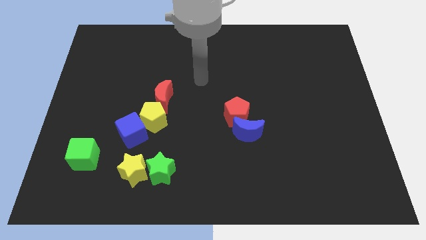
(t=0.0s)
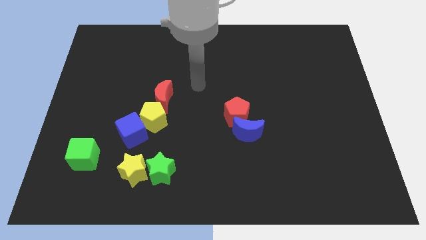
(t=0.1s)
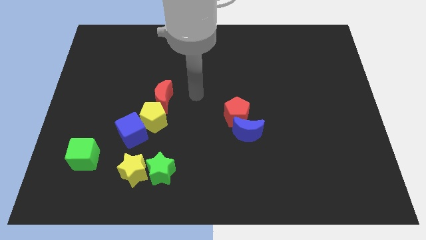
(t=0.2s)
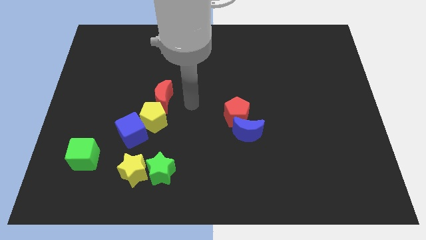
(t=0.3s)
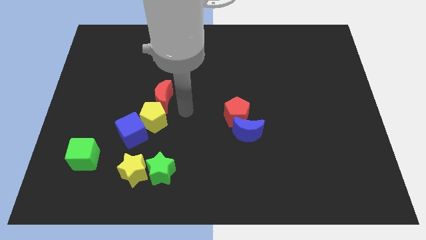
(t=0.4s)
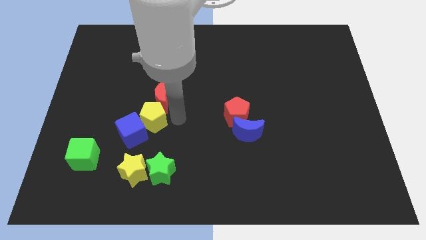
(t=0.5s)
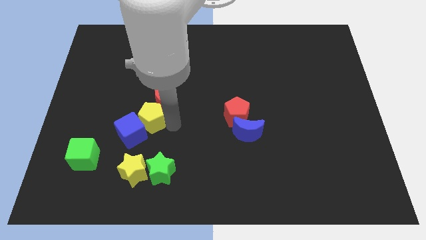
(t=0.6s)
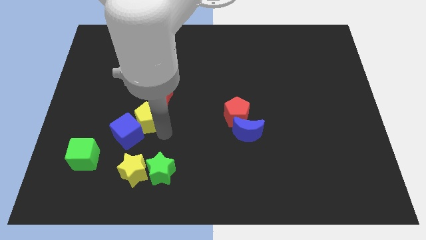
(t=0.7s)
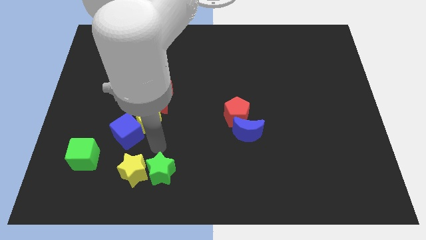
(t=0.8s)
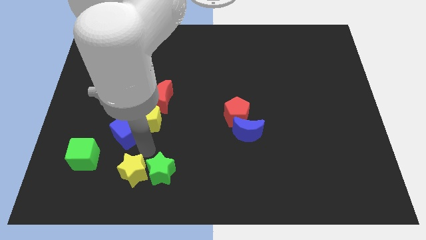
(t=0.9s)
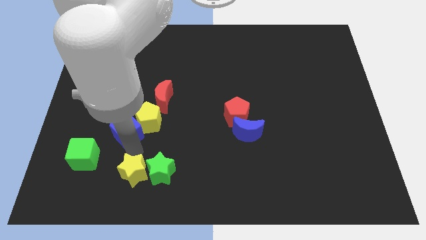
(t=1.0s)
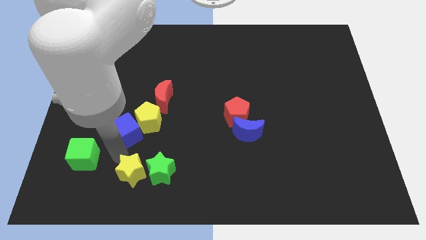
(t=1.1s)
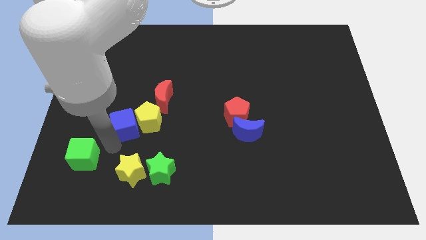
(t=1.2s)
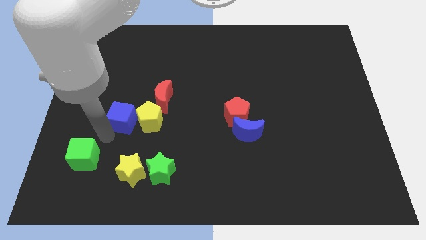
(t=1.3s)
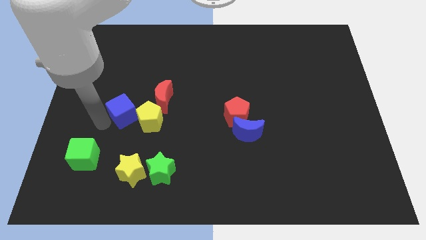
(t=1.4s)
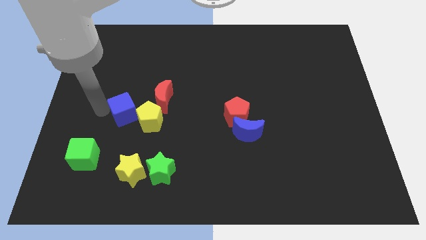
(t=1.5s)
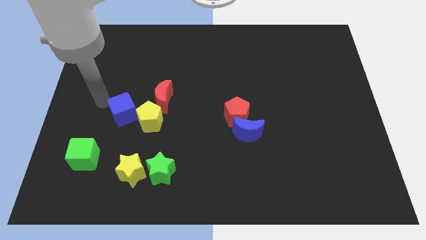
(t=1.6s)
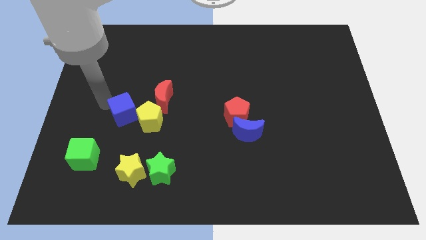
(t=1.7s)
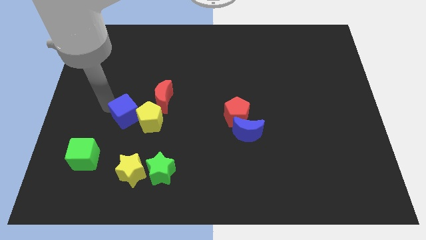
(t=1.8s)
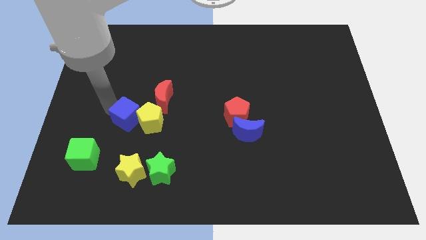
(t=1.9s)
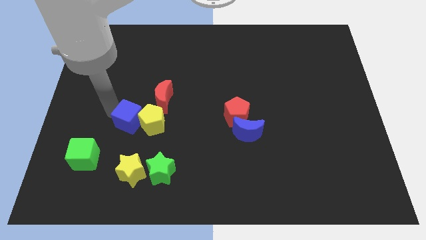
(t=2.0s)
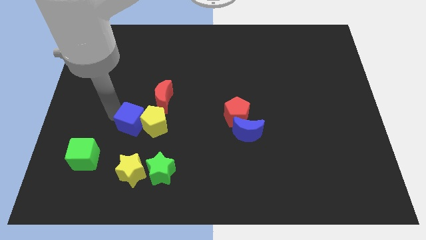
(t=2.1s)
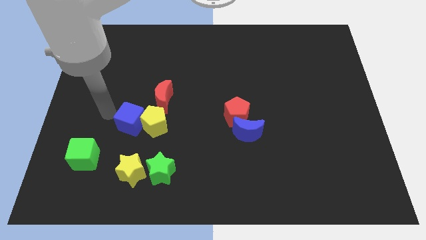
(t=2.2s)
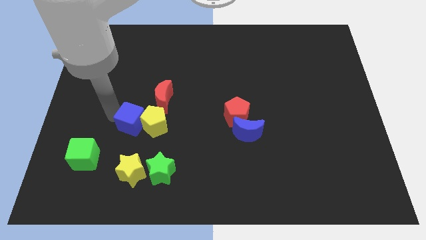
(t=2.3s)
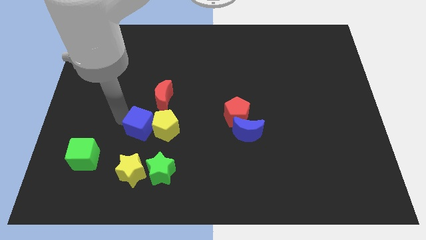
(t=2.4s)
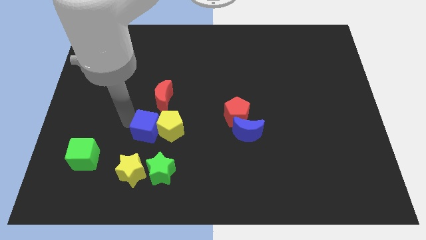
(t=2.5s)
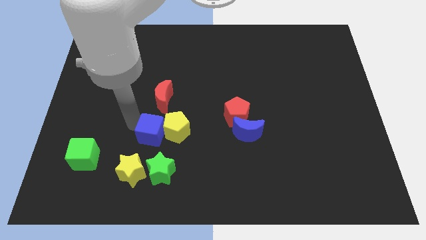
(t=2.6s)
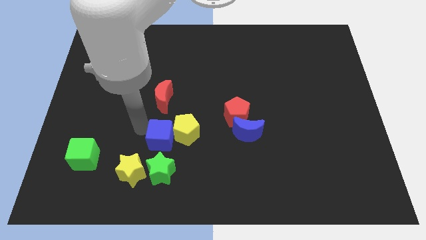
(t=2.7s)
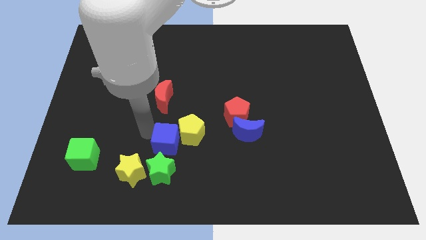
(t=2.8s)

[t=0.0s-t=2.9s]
push the blue cube right a bit

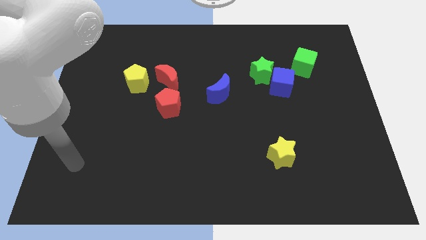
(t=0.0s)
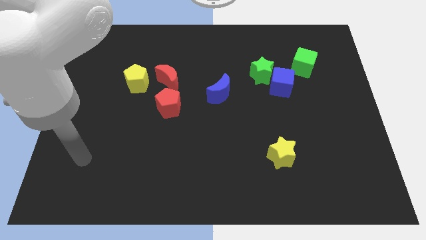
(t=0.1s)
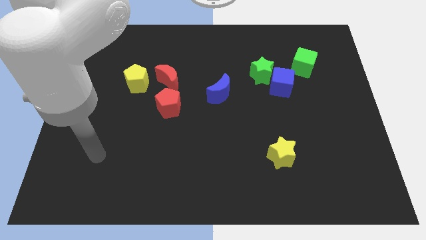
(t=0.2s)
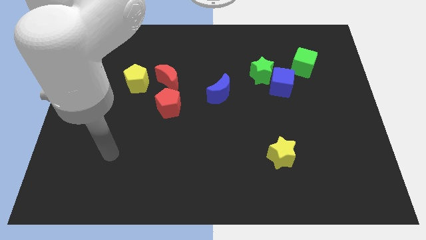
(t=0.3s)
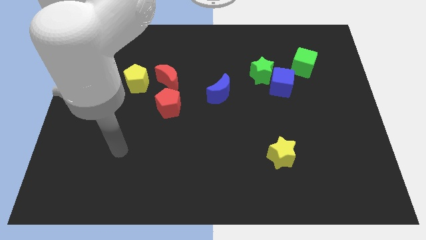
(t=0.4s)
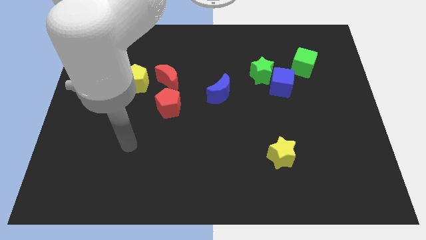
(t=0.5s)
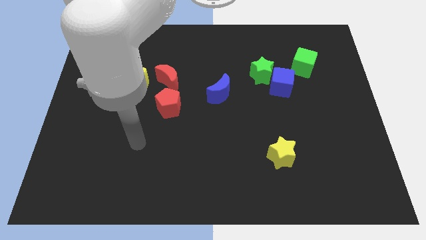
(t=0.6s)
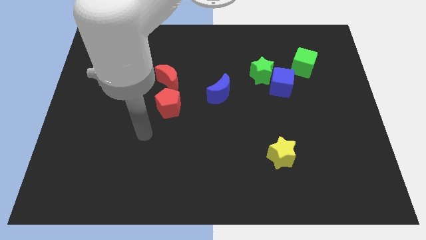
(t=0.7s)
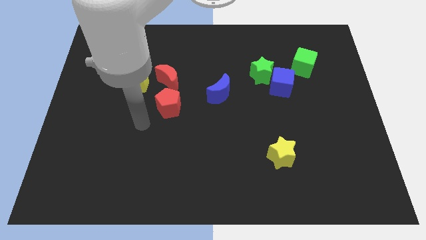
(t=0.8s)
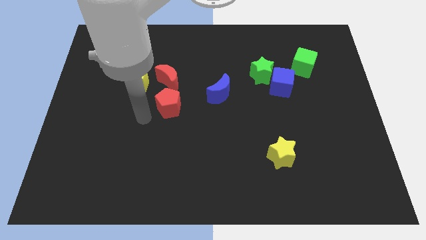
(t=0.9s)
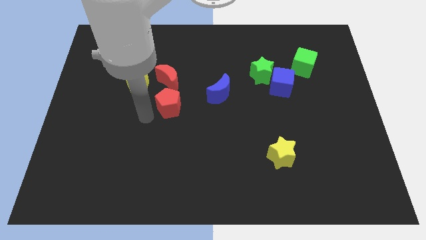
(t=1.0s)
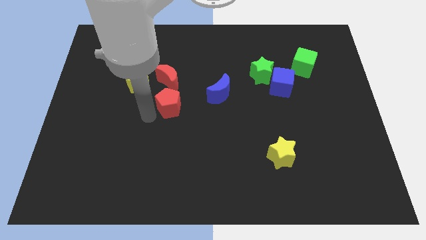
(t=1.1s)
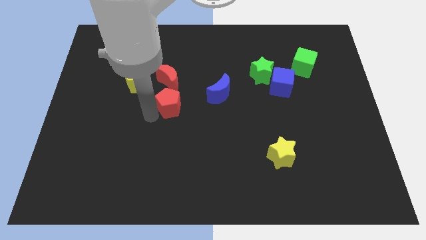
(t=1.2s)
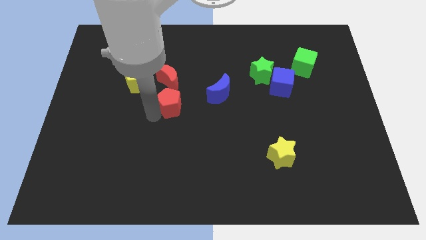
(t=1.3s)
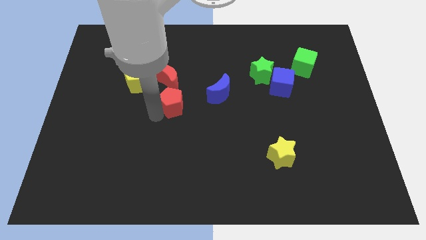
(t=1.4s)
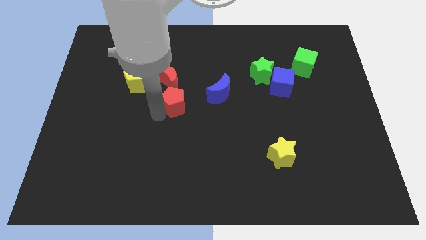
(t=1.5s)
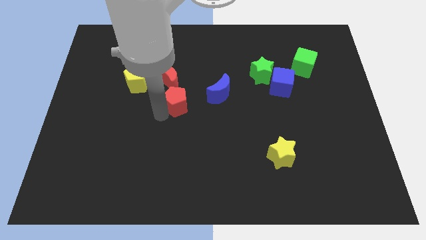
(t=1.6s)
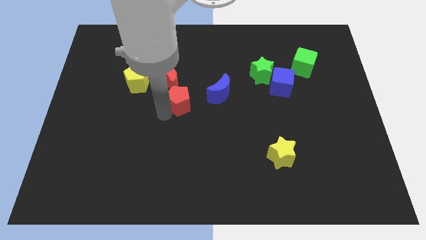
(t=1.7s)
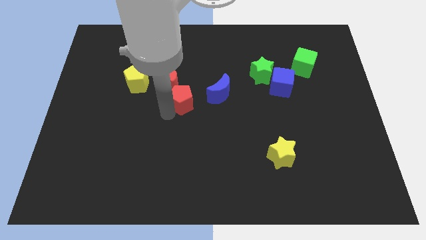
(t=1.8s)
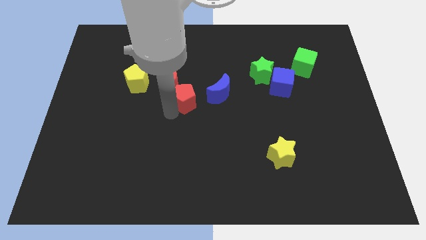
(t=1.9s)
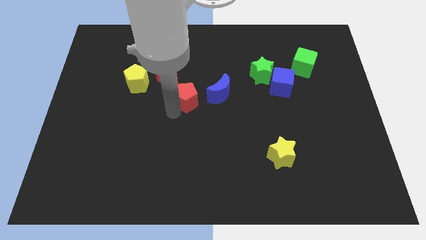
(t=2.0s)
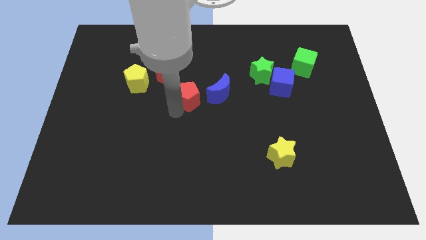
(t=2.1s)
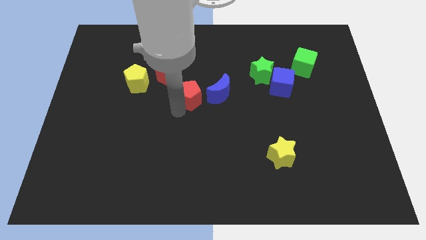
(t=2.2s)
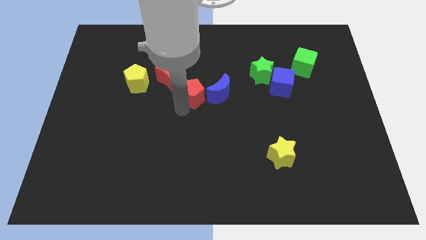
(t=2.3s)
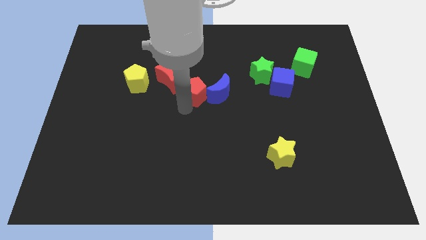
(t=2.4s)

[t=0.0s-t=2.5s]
move the red pentagon up and then to the right a little

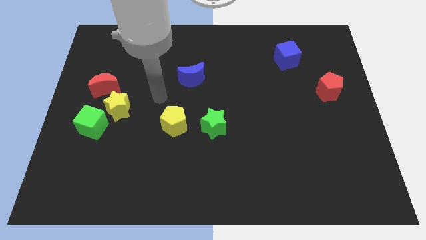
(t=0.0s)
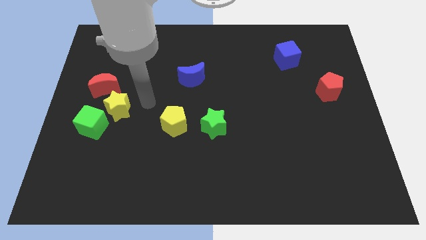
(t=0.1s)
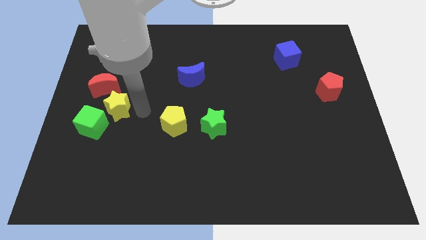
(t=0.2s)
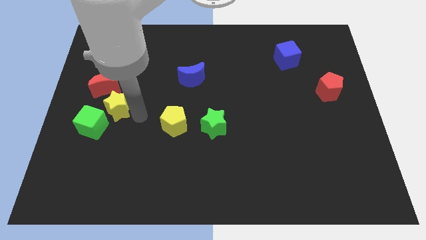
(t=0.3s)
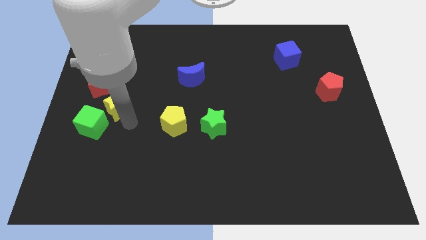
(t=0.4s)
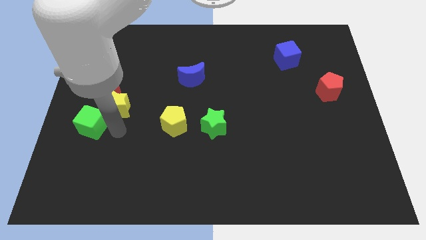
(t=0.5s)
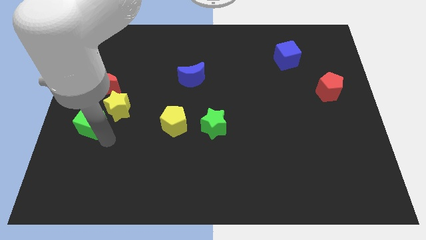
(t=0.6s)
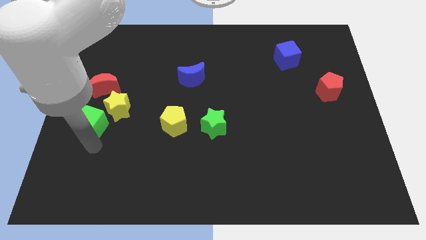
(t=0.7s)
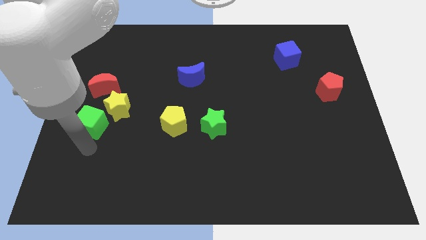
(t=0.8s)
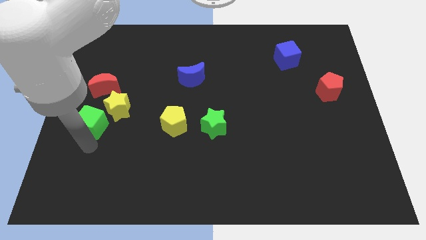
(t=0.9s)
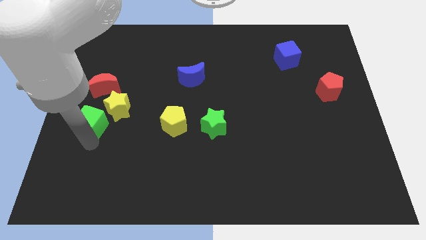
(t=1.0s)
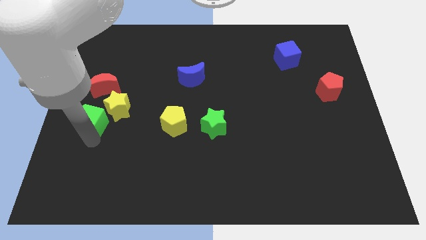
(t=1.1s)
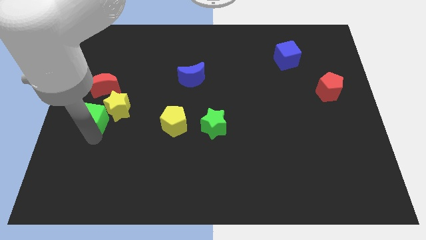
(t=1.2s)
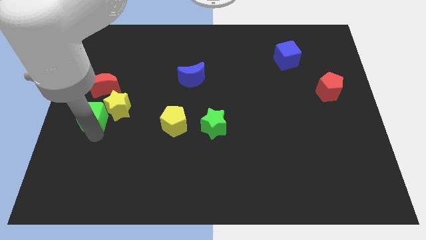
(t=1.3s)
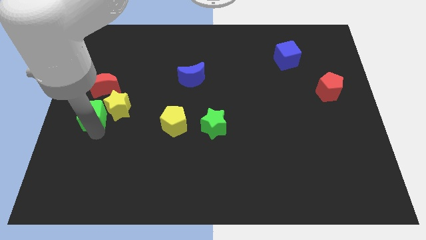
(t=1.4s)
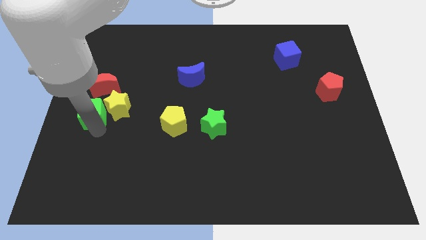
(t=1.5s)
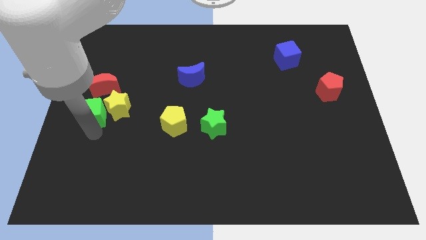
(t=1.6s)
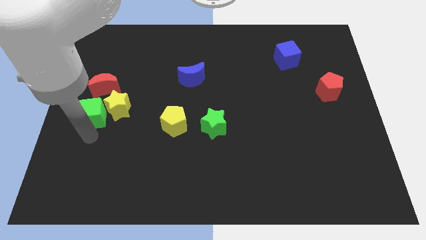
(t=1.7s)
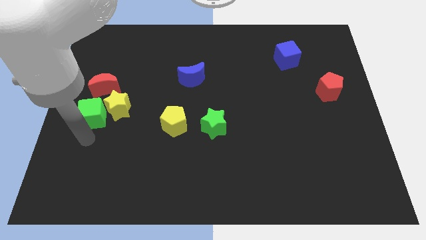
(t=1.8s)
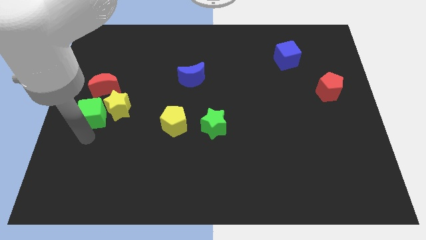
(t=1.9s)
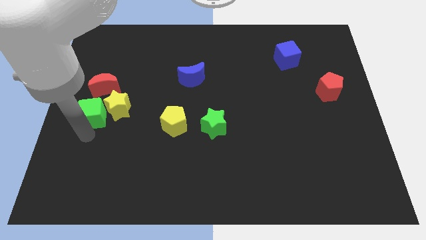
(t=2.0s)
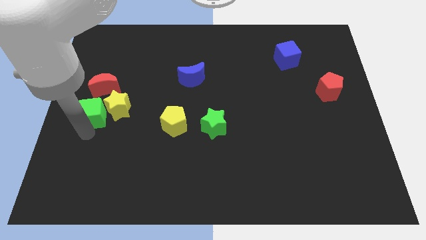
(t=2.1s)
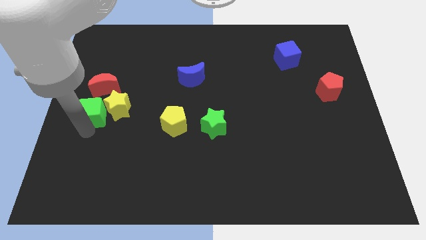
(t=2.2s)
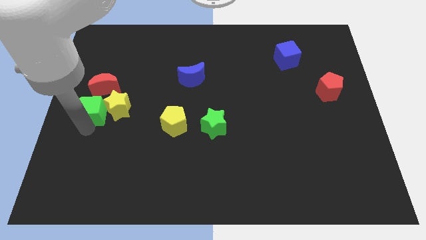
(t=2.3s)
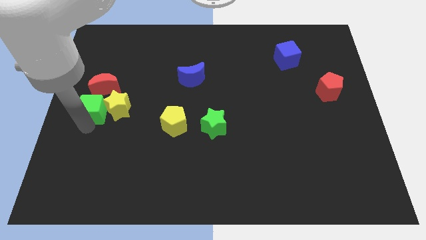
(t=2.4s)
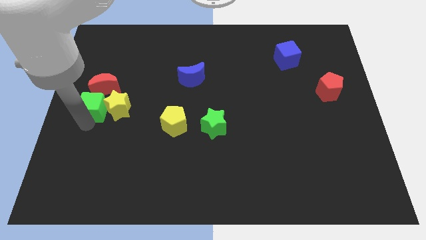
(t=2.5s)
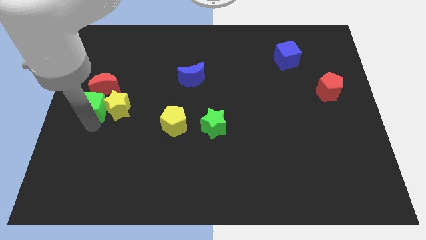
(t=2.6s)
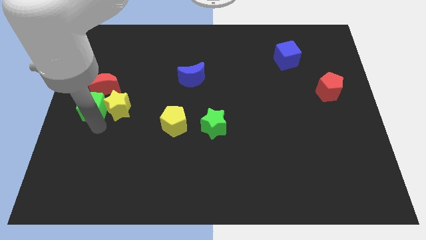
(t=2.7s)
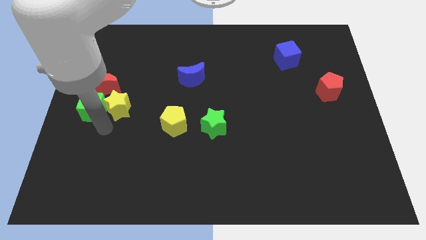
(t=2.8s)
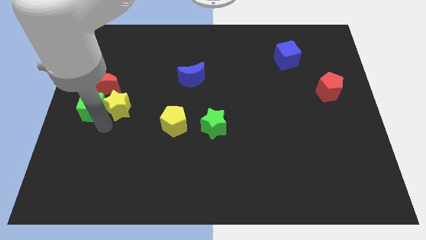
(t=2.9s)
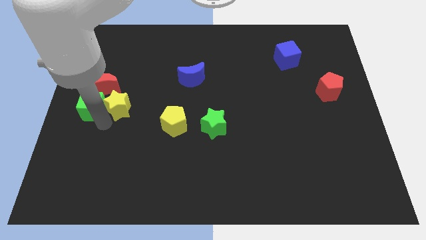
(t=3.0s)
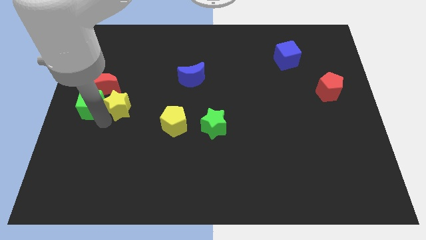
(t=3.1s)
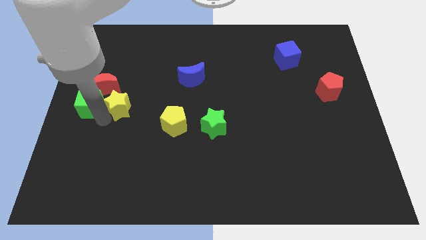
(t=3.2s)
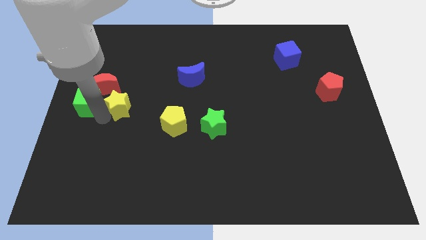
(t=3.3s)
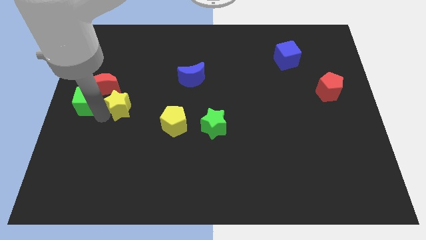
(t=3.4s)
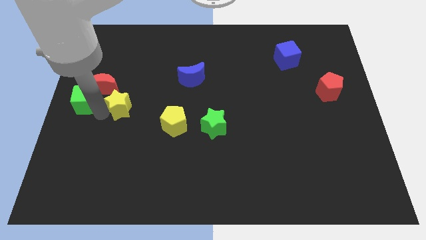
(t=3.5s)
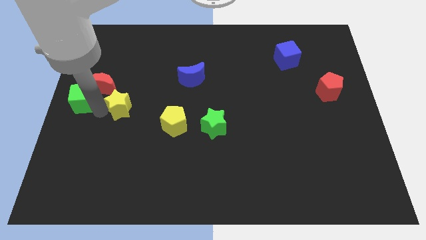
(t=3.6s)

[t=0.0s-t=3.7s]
move the green cube upwards somewhat
